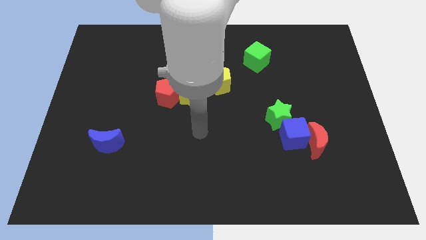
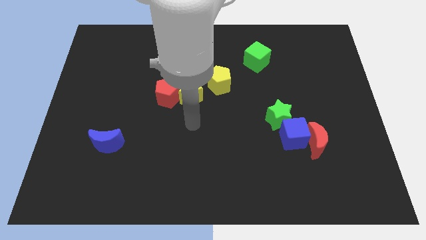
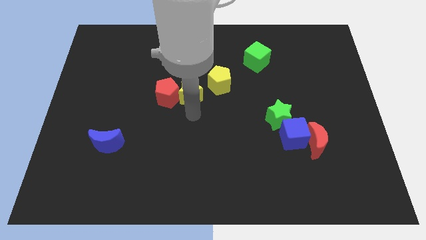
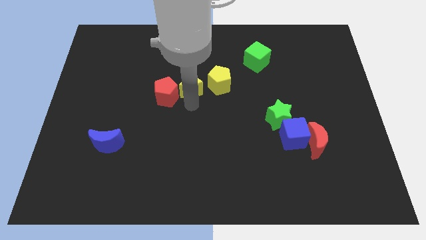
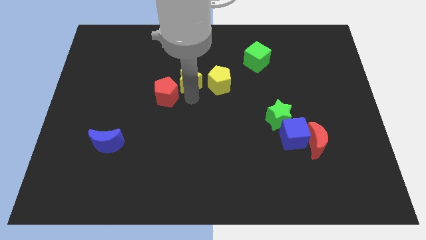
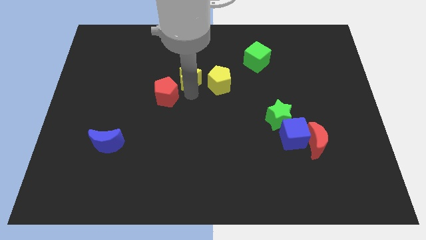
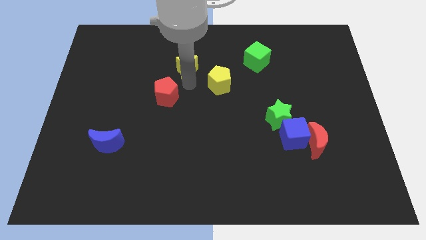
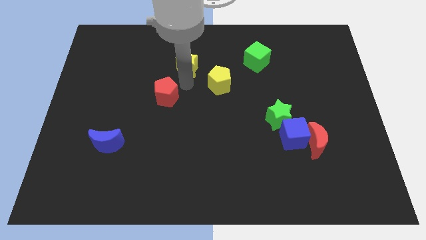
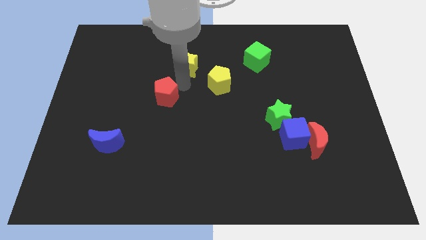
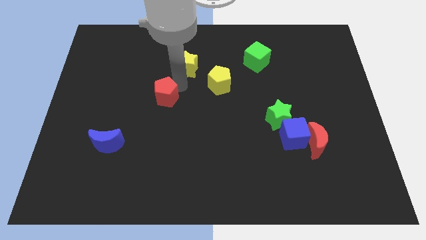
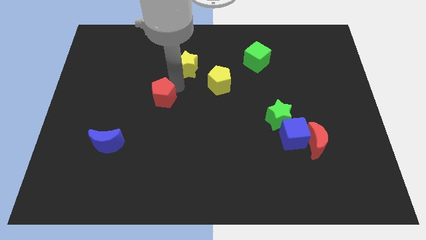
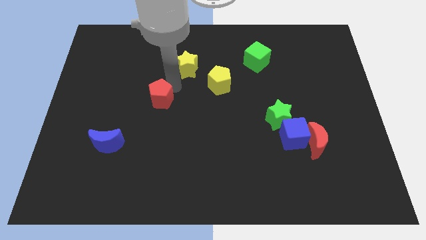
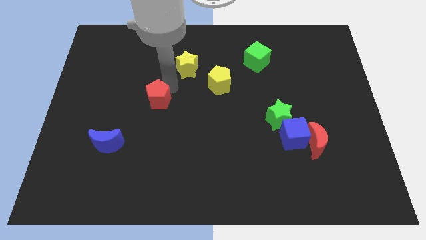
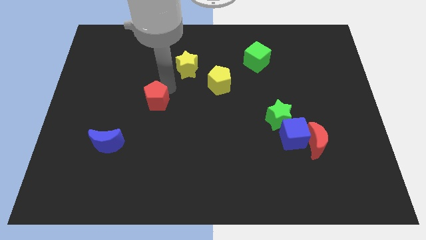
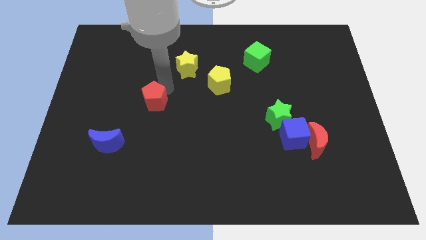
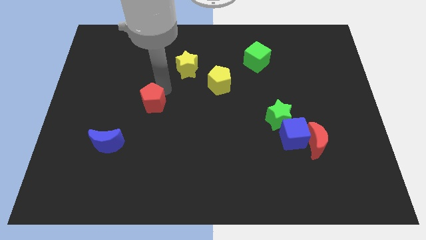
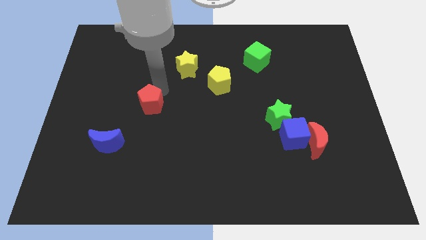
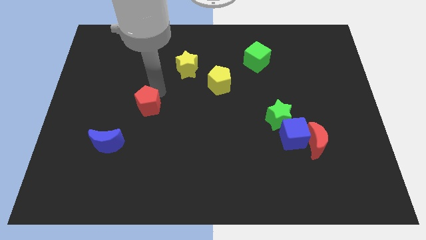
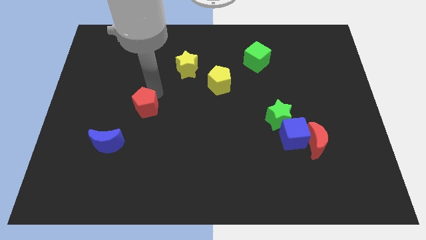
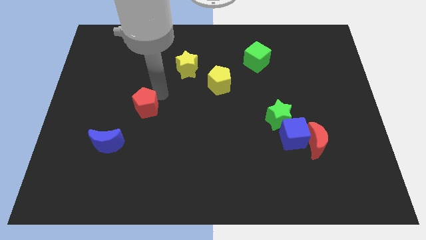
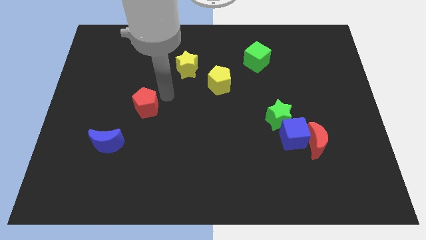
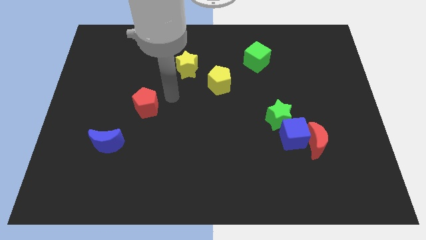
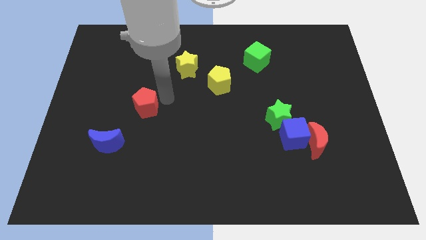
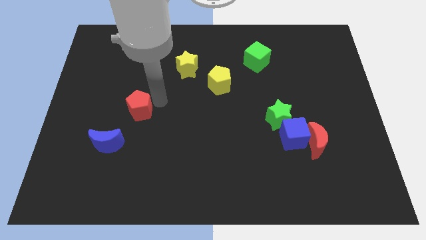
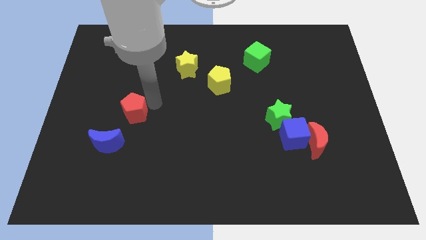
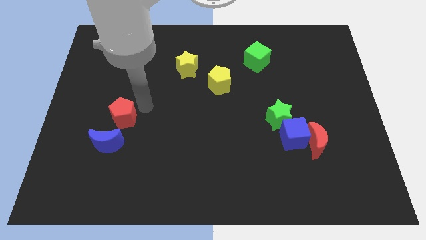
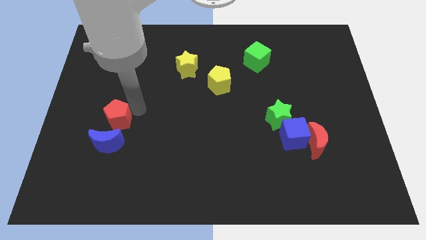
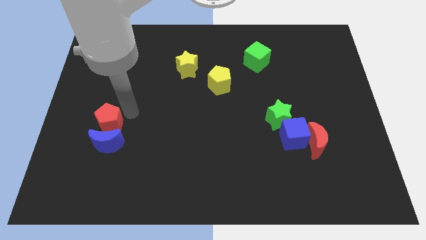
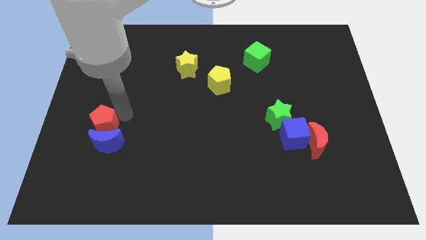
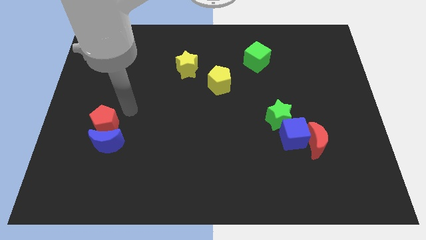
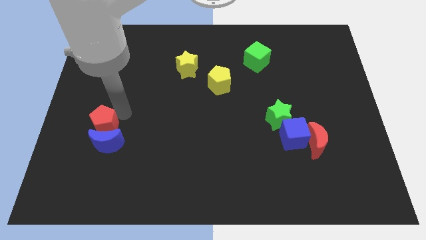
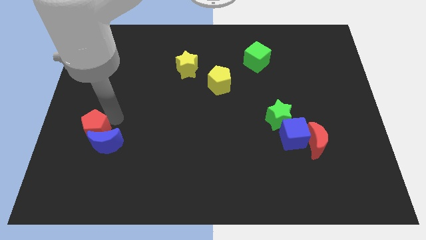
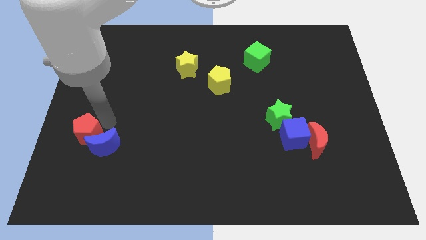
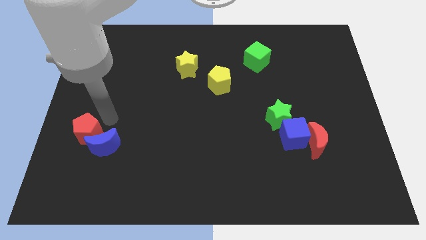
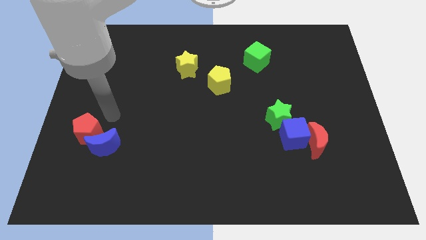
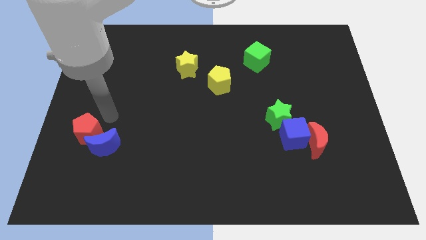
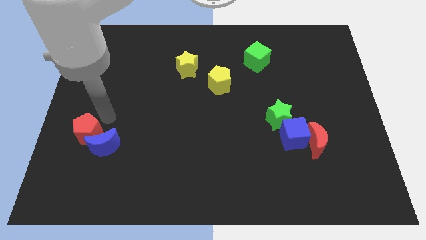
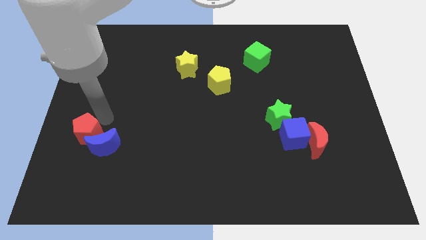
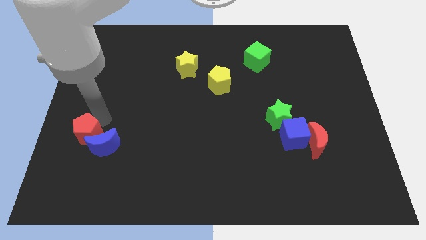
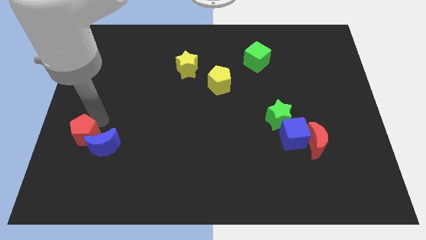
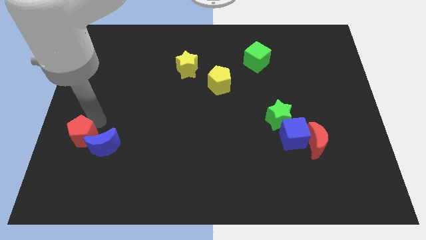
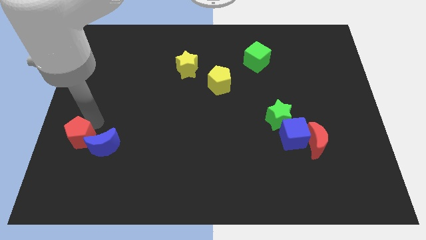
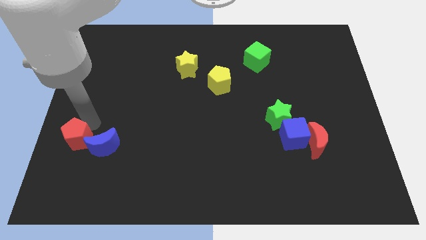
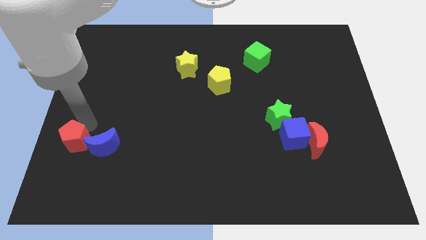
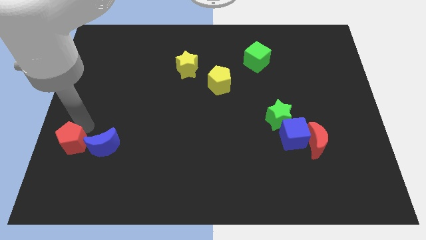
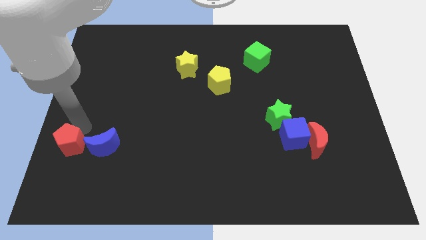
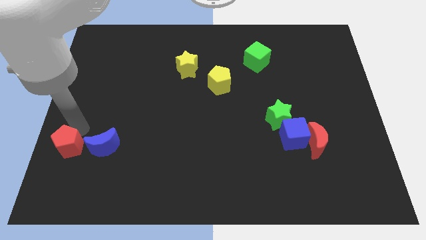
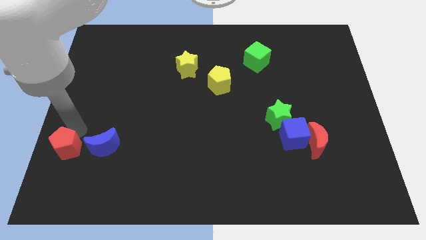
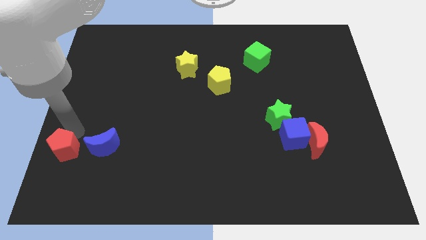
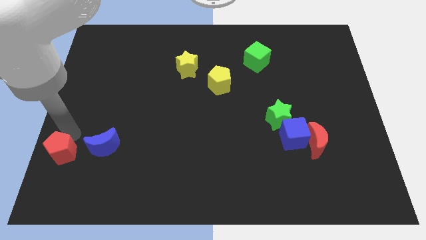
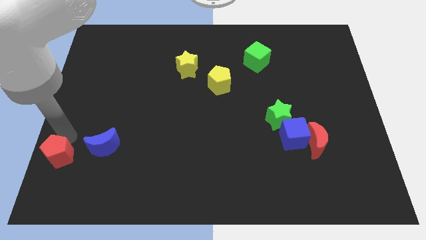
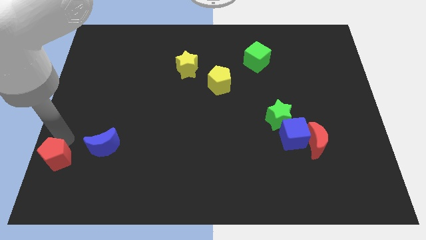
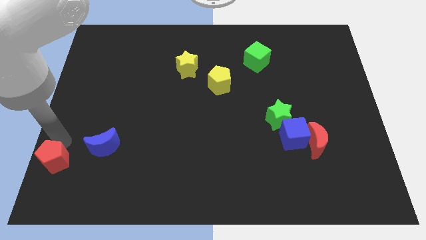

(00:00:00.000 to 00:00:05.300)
slide the red pentagon to the bottom left

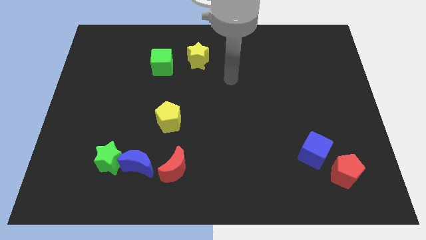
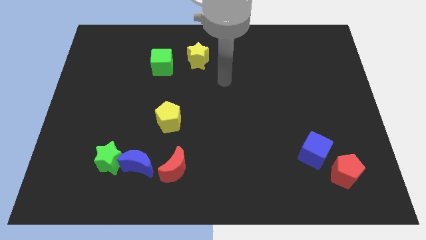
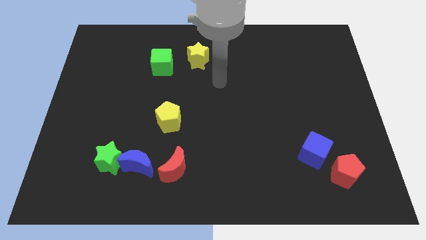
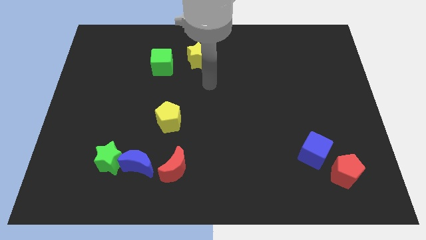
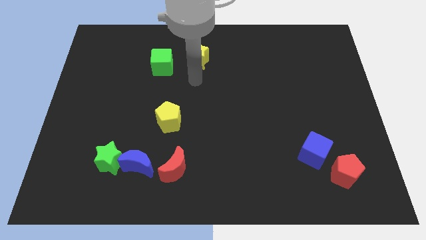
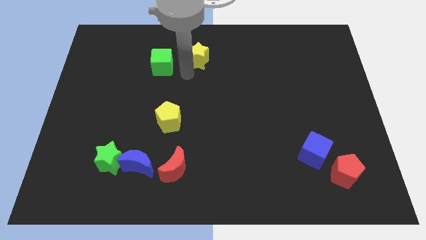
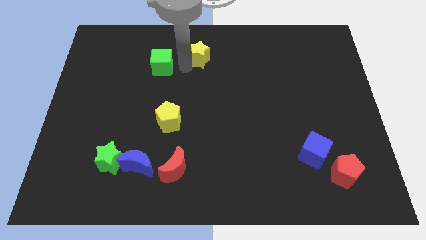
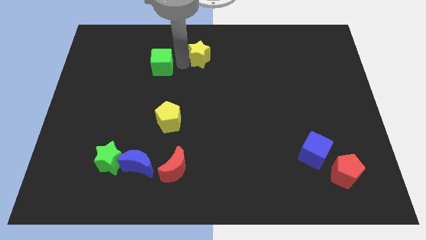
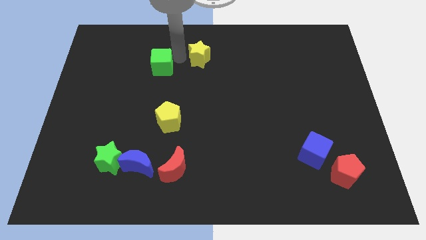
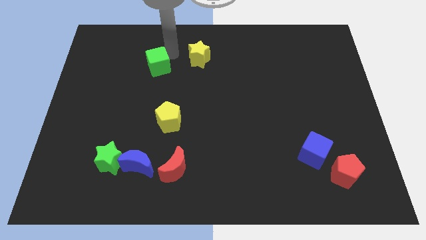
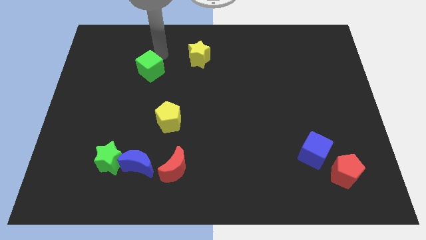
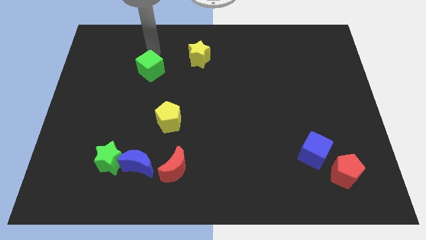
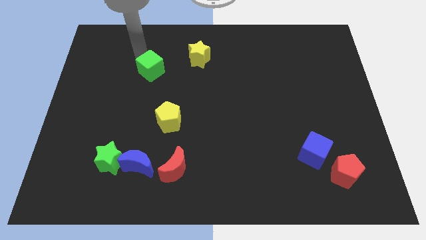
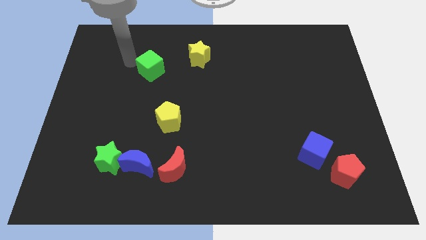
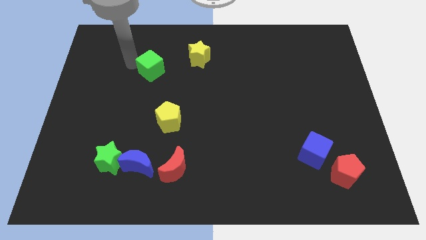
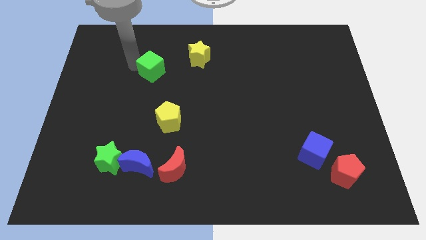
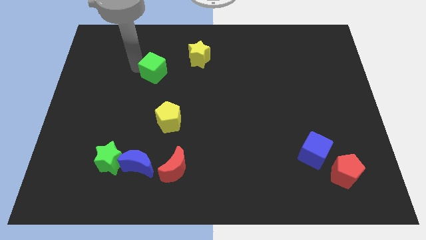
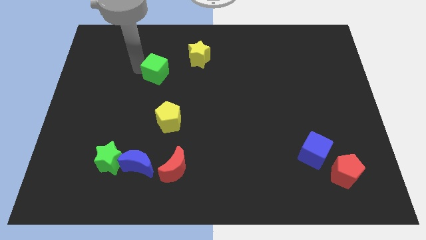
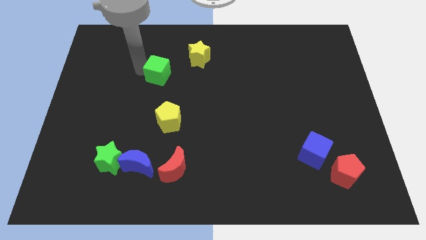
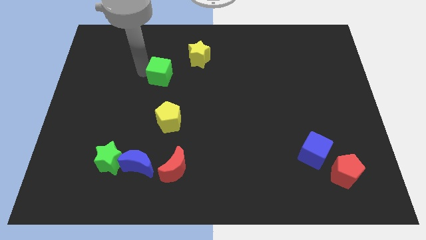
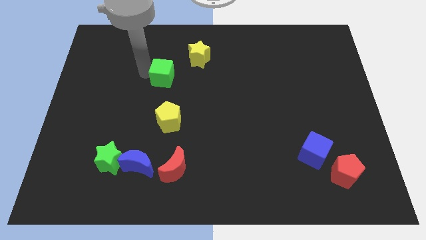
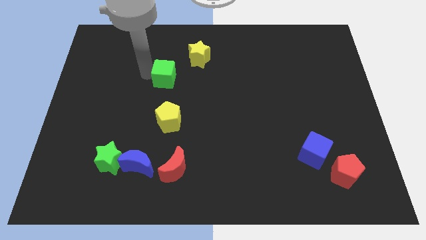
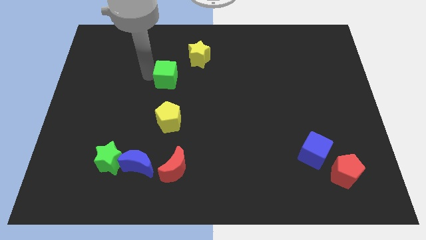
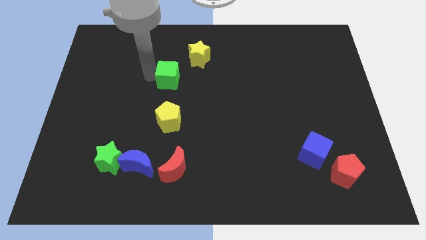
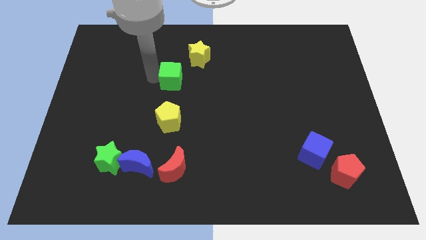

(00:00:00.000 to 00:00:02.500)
push the green cube to the middle
